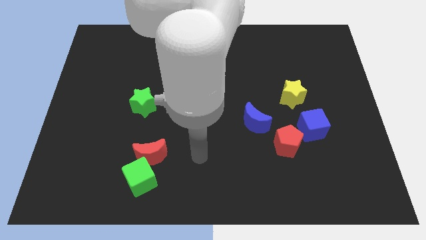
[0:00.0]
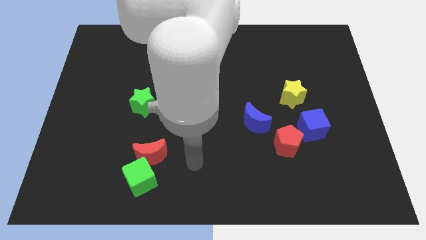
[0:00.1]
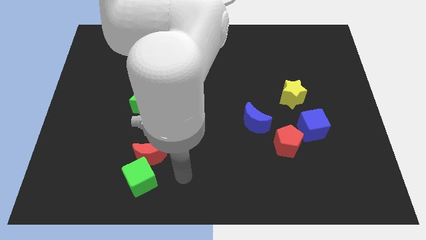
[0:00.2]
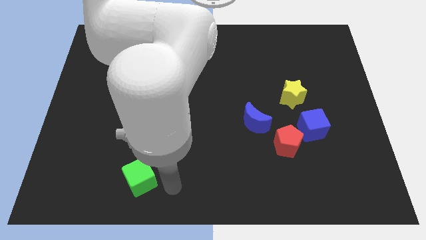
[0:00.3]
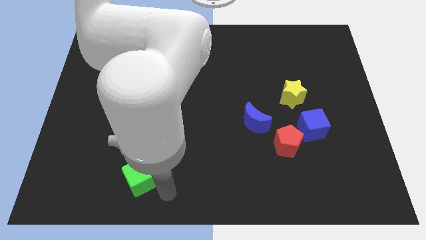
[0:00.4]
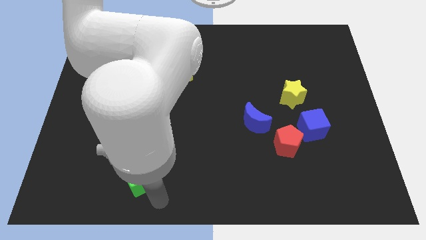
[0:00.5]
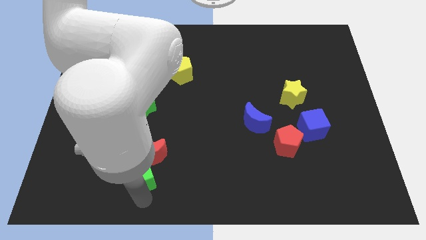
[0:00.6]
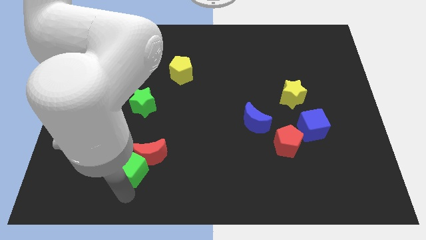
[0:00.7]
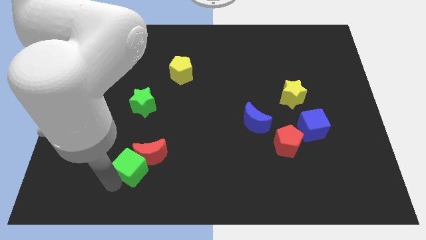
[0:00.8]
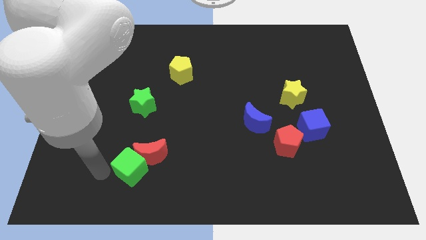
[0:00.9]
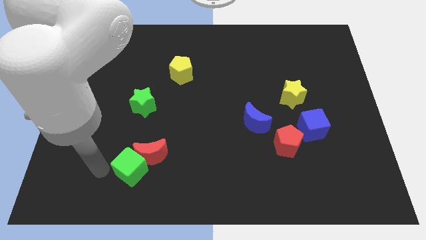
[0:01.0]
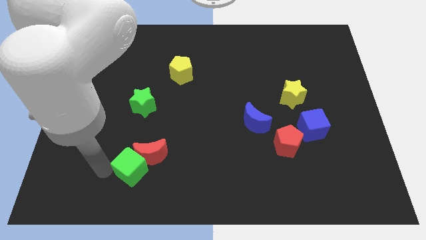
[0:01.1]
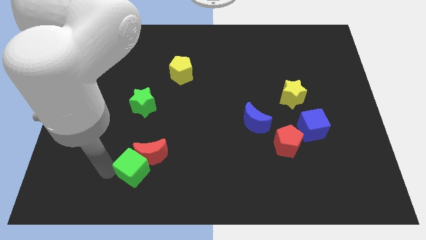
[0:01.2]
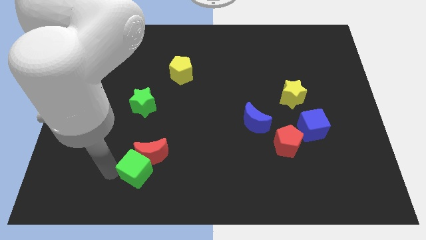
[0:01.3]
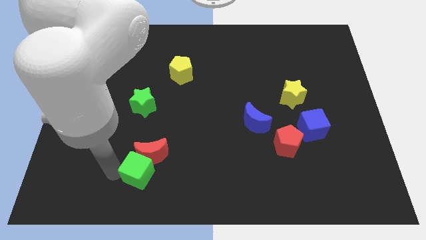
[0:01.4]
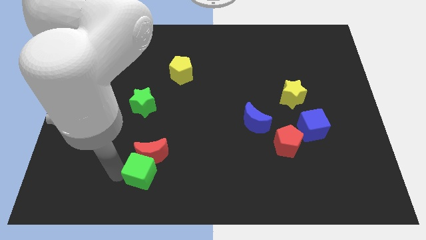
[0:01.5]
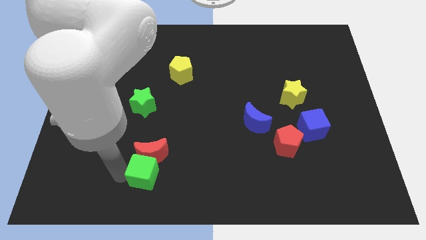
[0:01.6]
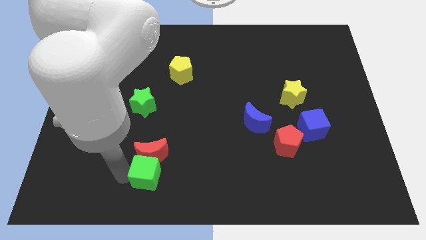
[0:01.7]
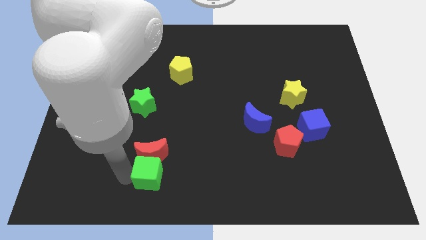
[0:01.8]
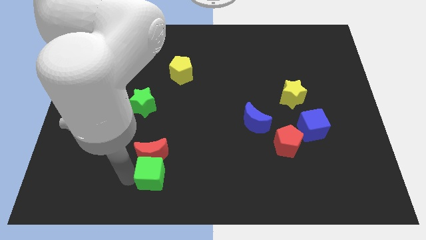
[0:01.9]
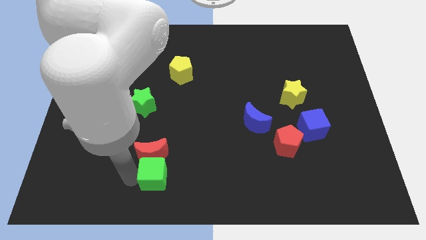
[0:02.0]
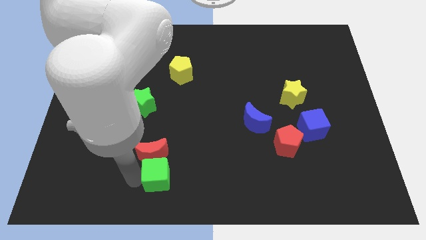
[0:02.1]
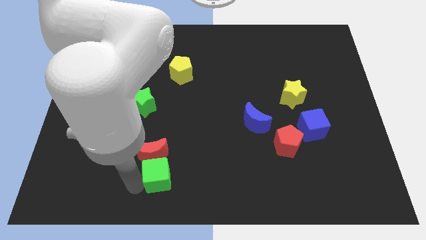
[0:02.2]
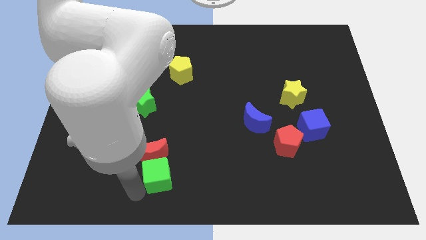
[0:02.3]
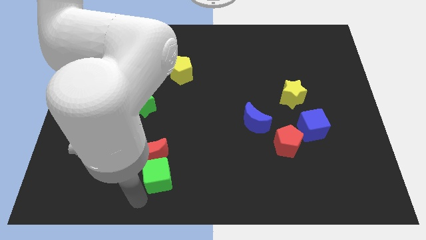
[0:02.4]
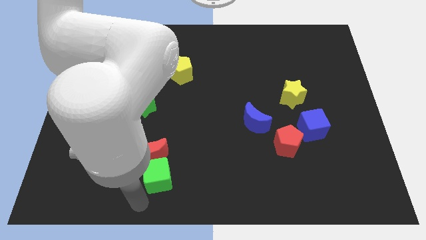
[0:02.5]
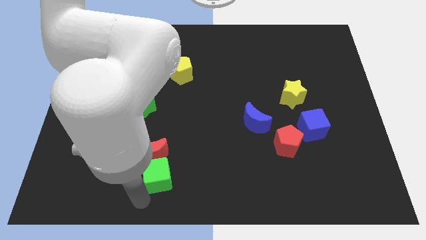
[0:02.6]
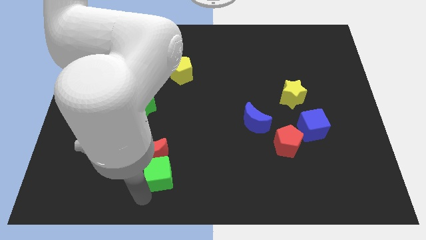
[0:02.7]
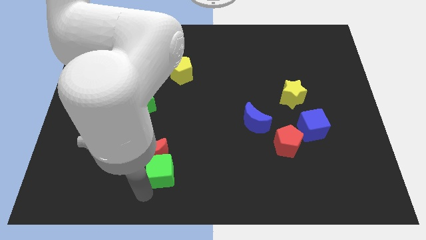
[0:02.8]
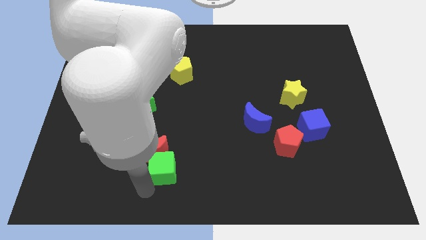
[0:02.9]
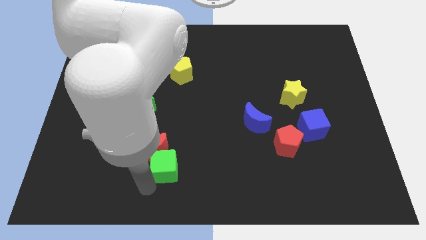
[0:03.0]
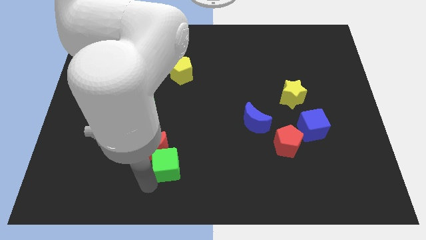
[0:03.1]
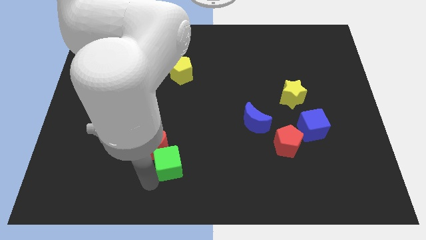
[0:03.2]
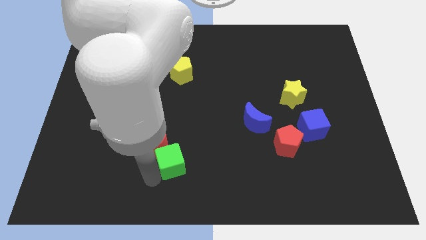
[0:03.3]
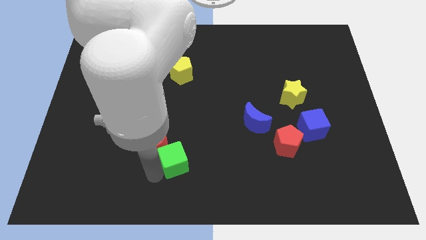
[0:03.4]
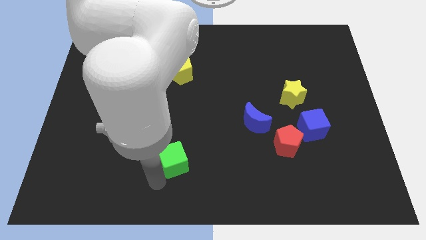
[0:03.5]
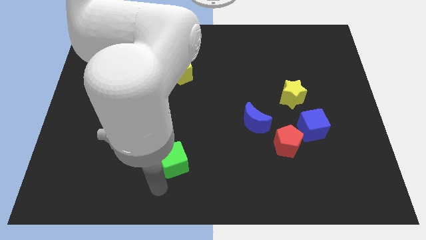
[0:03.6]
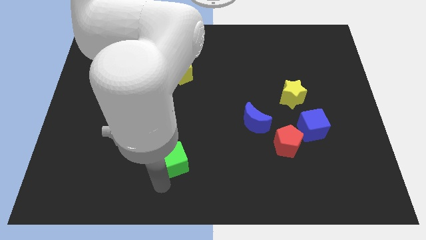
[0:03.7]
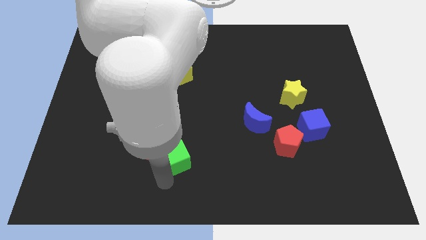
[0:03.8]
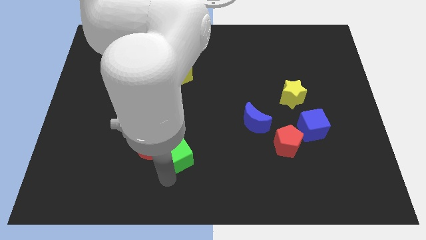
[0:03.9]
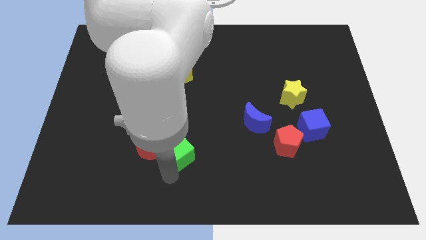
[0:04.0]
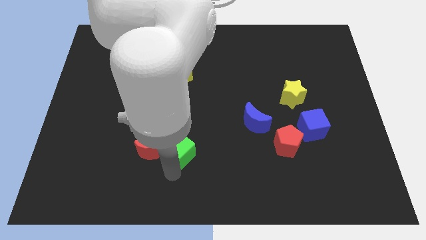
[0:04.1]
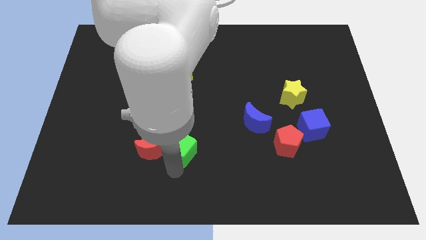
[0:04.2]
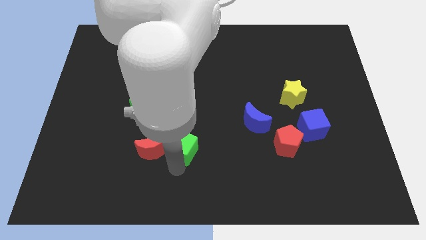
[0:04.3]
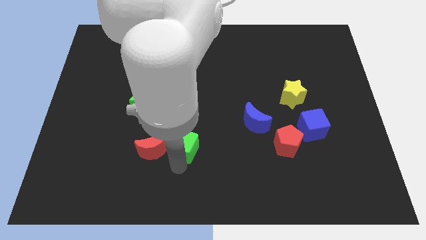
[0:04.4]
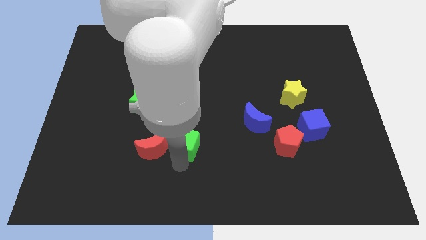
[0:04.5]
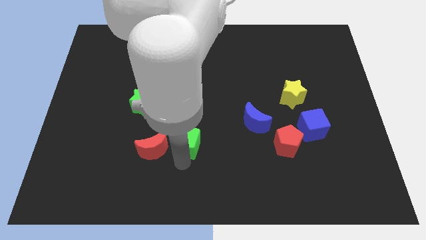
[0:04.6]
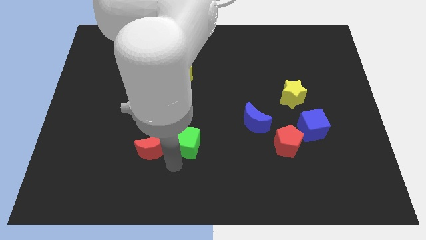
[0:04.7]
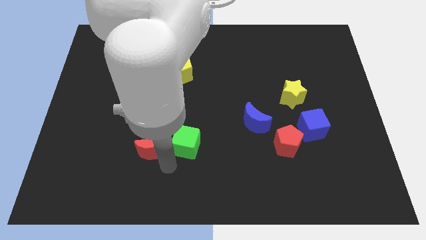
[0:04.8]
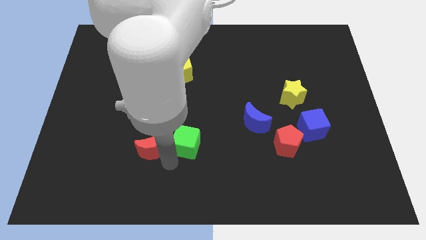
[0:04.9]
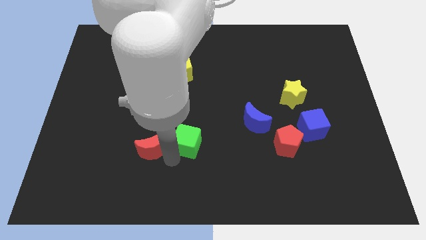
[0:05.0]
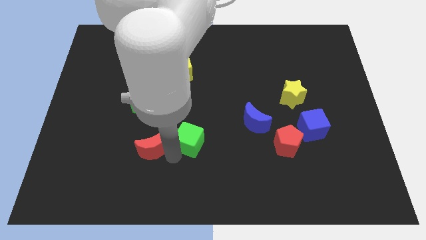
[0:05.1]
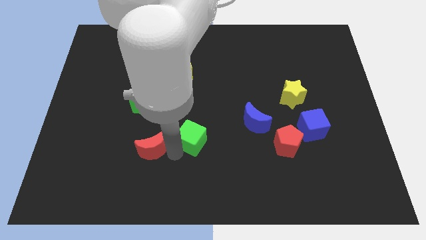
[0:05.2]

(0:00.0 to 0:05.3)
slide the green cube to the middle

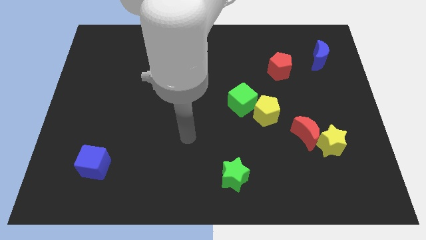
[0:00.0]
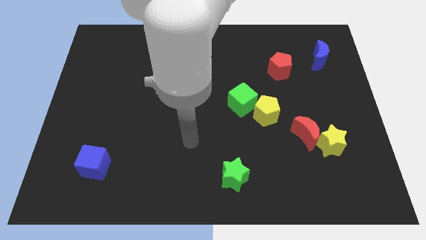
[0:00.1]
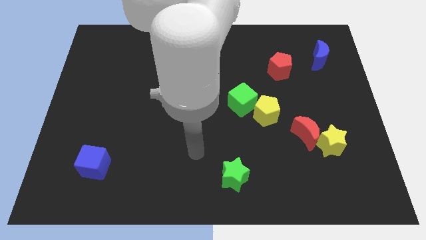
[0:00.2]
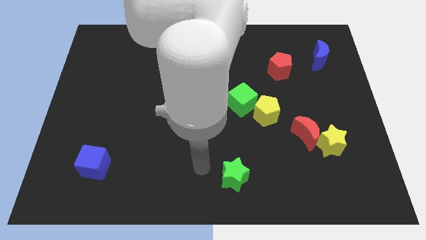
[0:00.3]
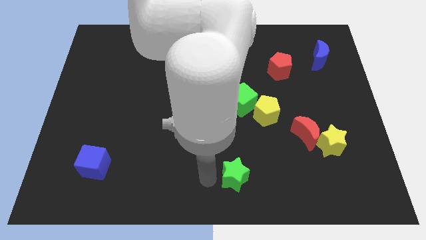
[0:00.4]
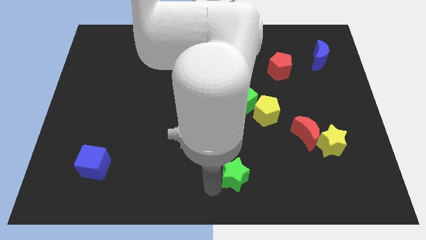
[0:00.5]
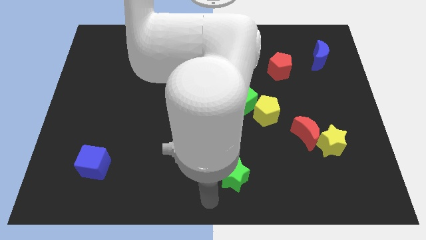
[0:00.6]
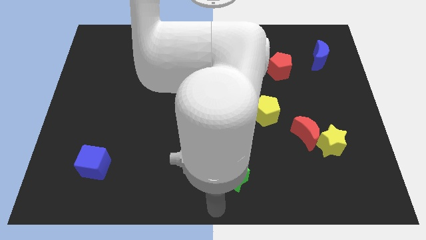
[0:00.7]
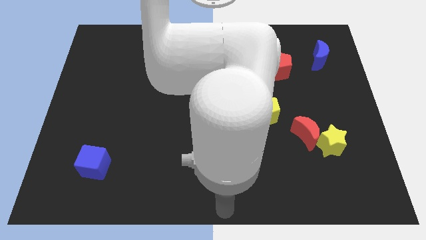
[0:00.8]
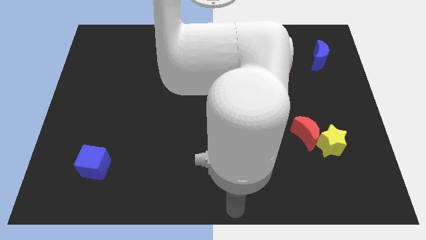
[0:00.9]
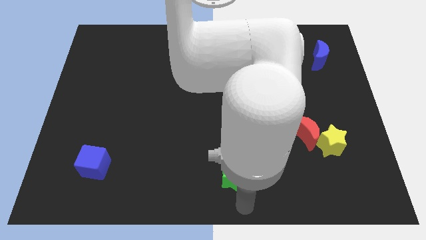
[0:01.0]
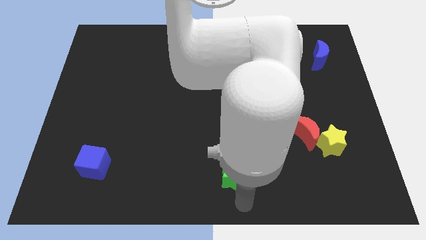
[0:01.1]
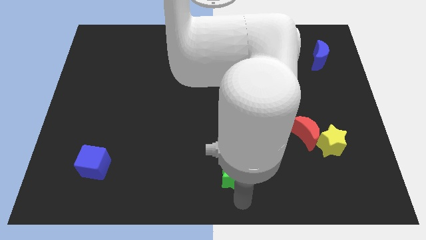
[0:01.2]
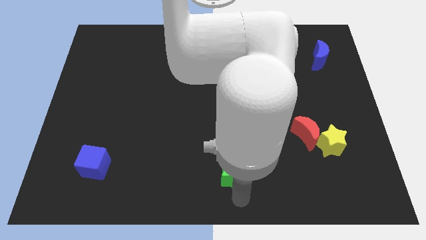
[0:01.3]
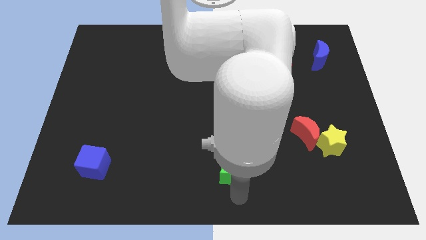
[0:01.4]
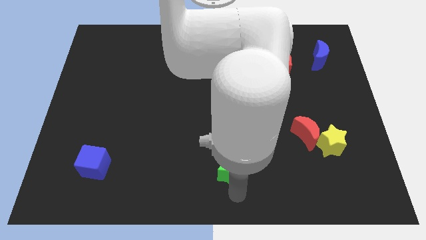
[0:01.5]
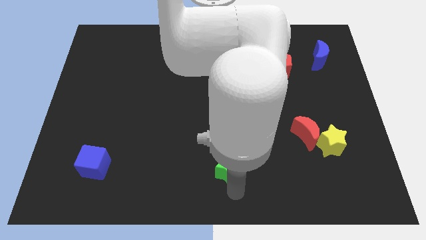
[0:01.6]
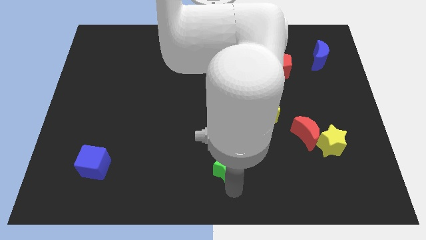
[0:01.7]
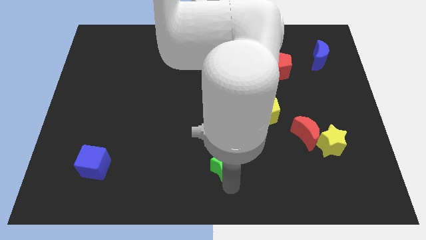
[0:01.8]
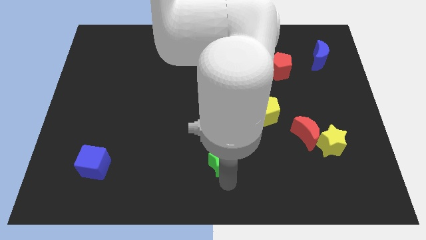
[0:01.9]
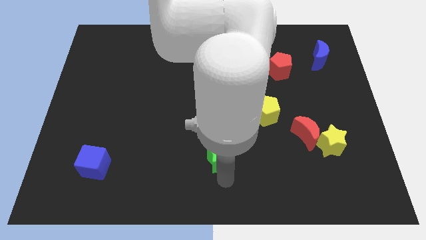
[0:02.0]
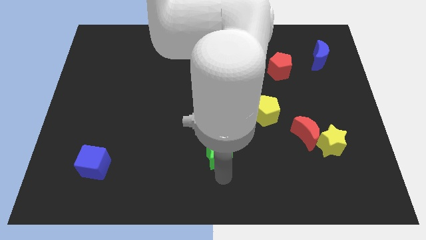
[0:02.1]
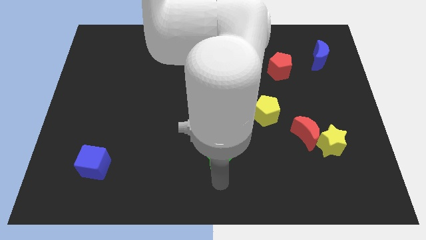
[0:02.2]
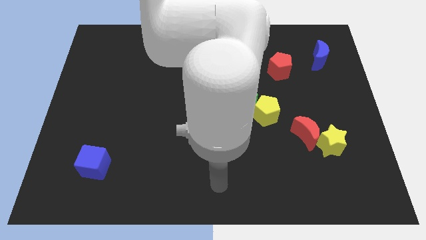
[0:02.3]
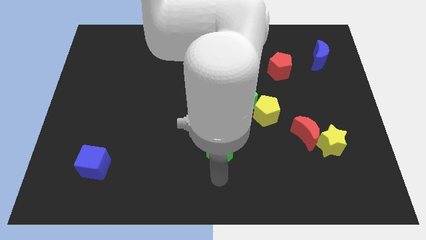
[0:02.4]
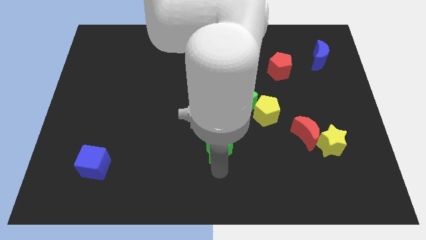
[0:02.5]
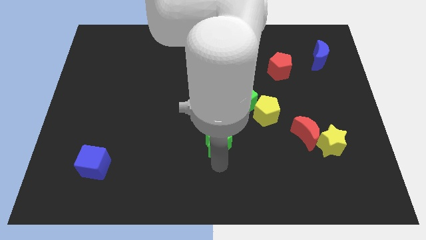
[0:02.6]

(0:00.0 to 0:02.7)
move the green star to the center of the board
